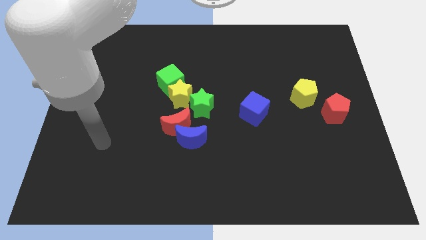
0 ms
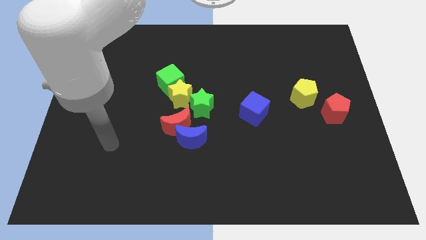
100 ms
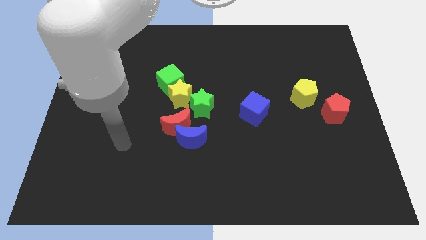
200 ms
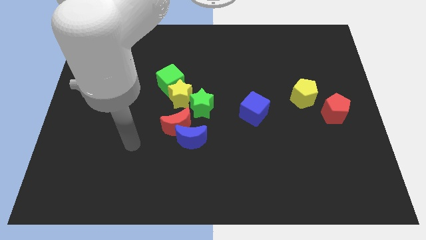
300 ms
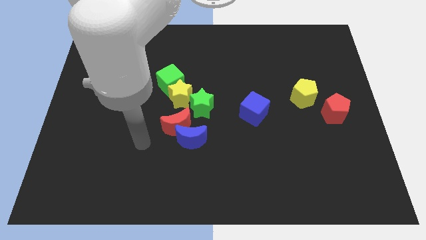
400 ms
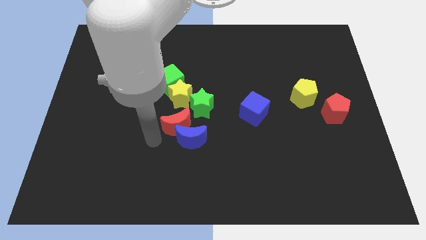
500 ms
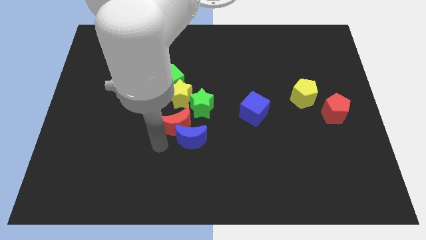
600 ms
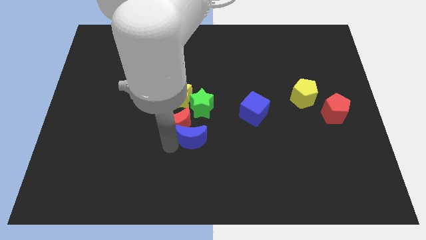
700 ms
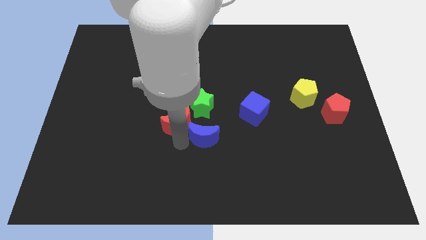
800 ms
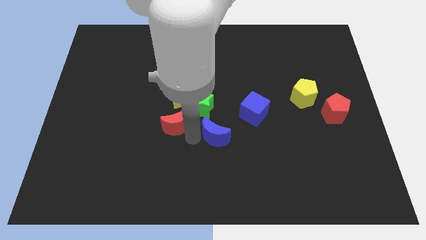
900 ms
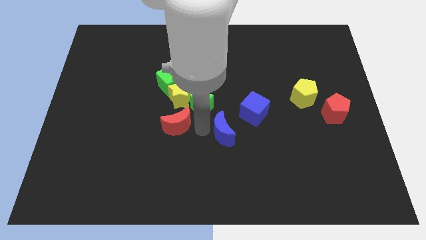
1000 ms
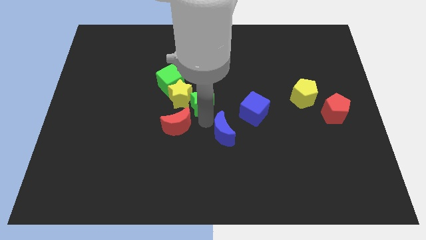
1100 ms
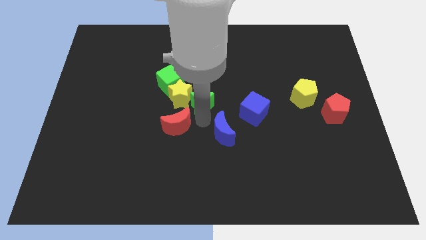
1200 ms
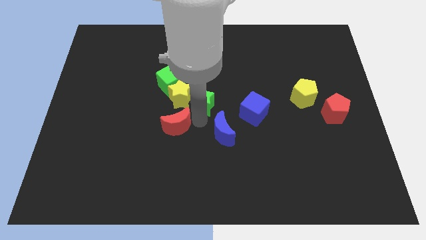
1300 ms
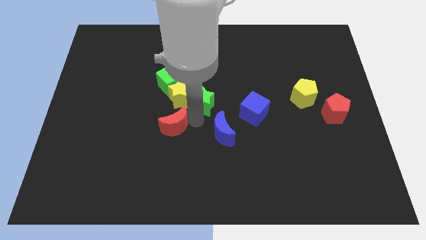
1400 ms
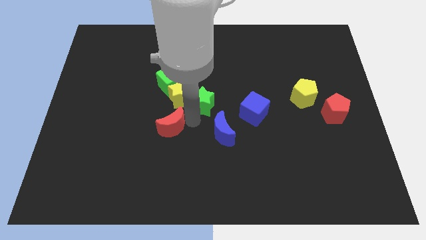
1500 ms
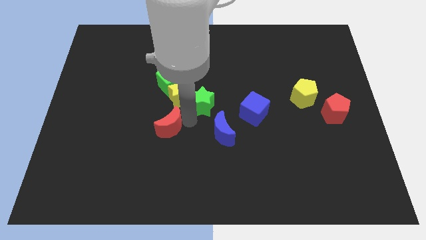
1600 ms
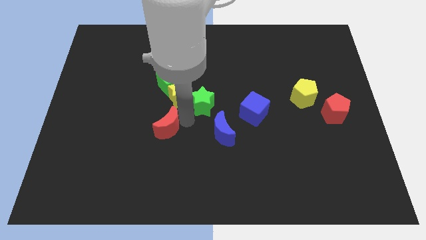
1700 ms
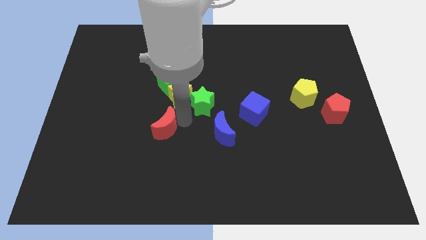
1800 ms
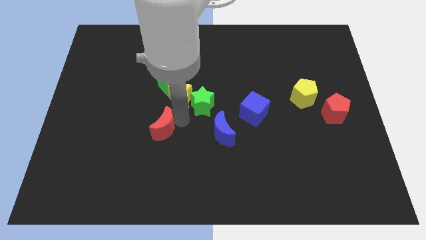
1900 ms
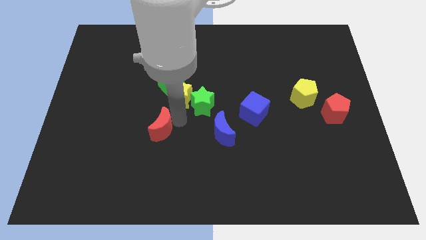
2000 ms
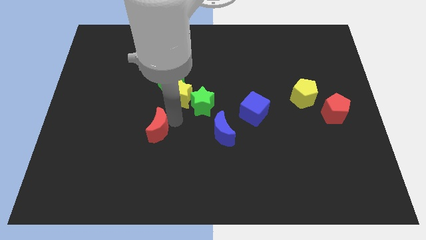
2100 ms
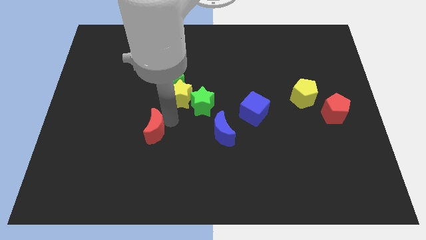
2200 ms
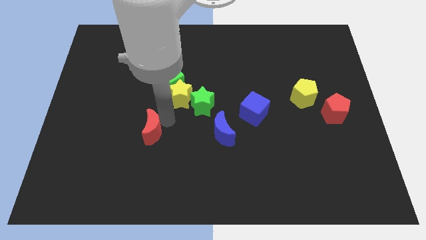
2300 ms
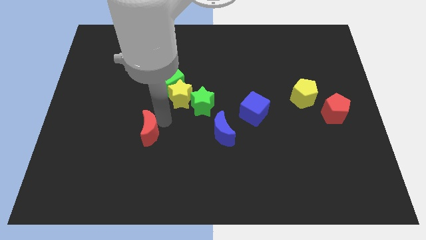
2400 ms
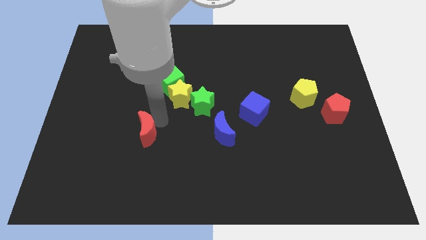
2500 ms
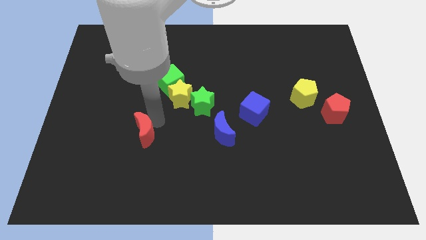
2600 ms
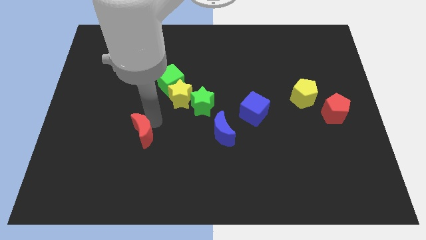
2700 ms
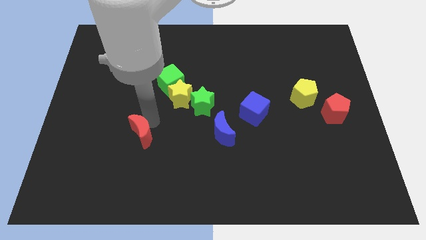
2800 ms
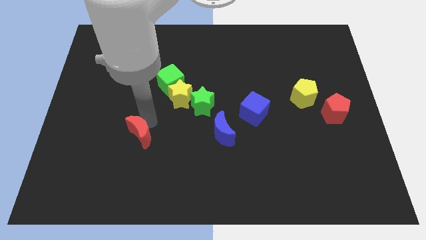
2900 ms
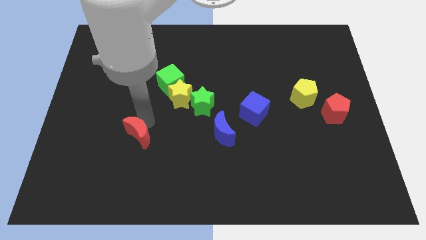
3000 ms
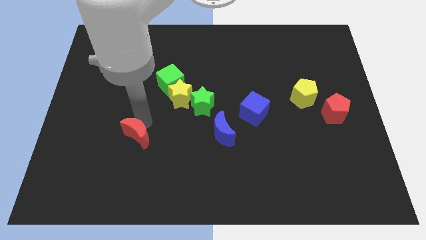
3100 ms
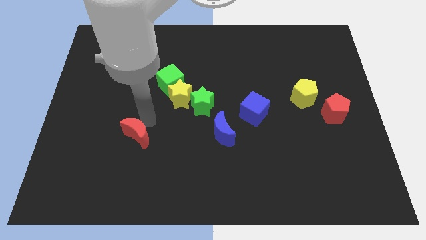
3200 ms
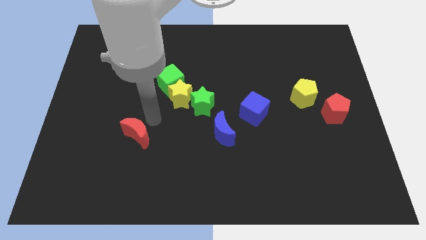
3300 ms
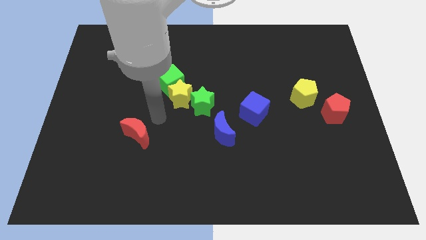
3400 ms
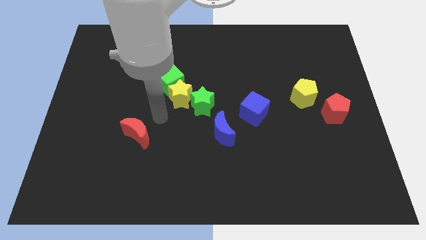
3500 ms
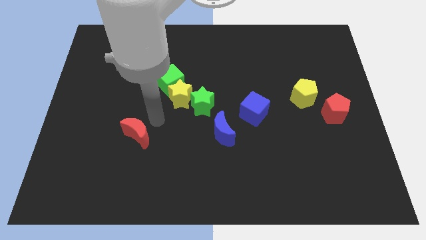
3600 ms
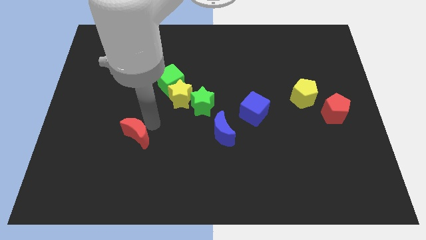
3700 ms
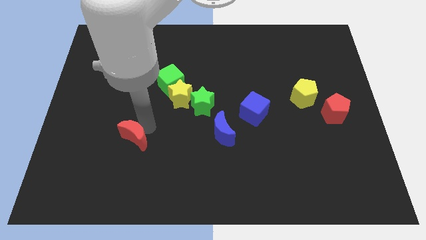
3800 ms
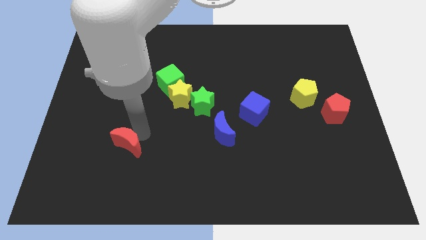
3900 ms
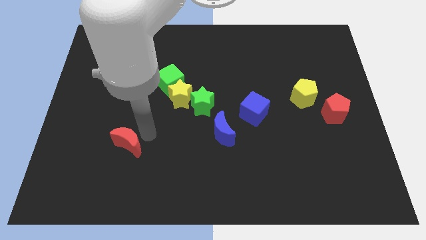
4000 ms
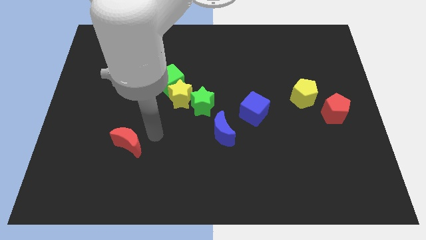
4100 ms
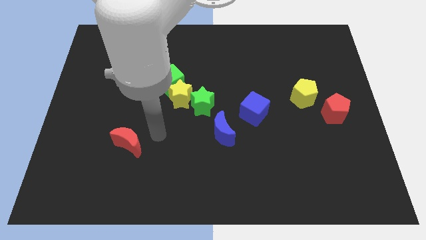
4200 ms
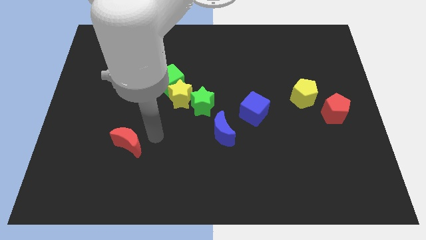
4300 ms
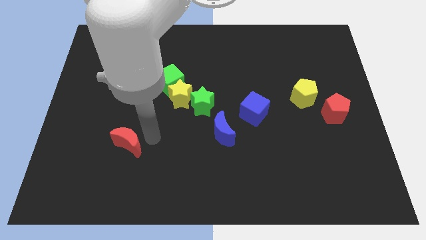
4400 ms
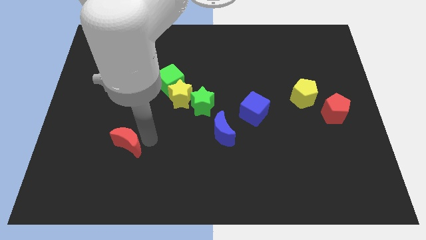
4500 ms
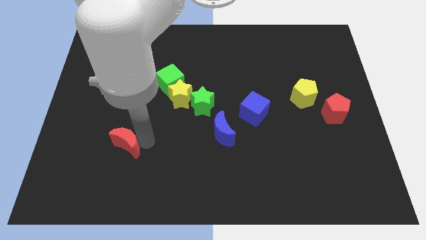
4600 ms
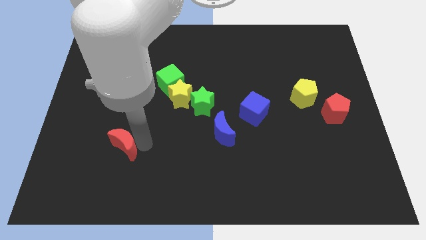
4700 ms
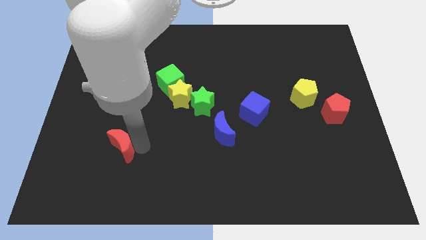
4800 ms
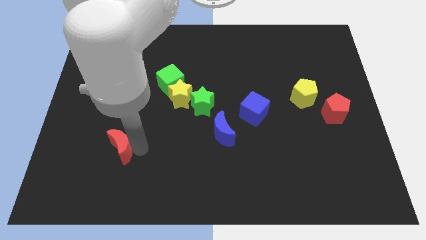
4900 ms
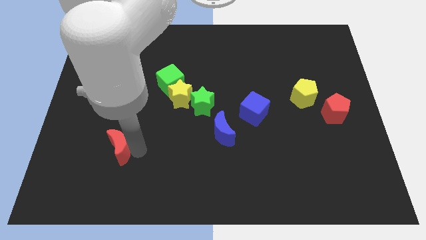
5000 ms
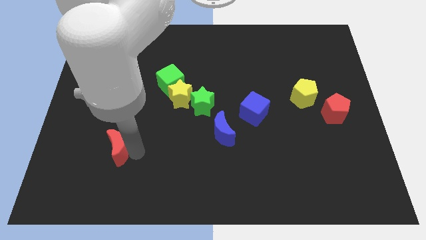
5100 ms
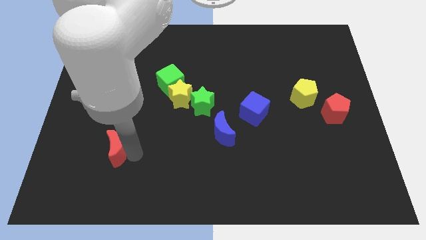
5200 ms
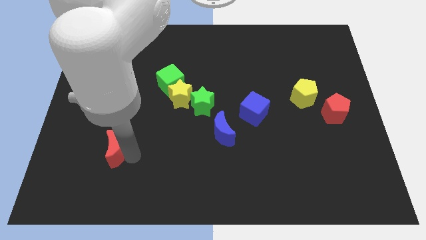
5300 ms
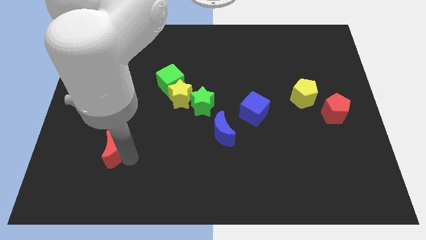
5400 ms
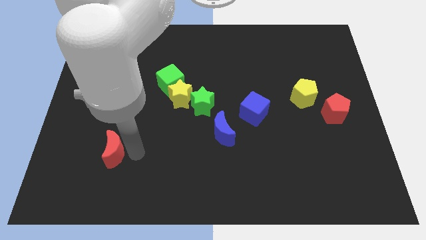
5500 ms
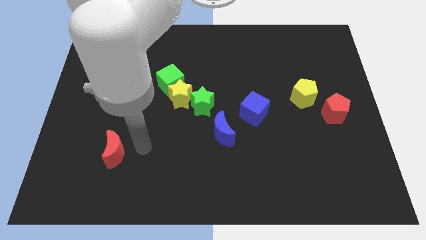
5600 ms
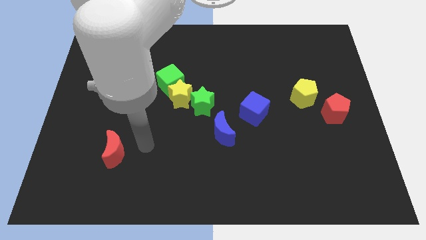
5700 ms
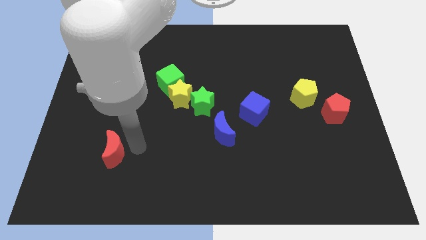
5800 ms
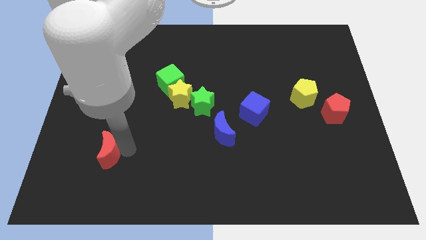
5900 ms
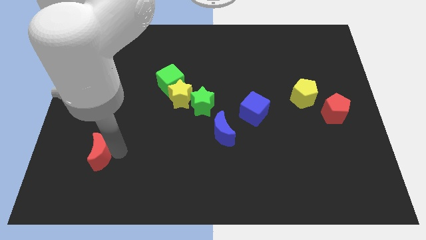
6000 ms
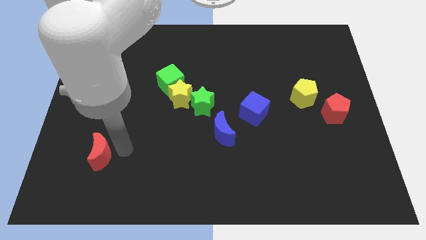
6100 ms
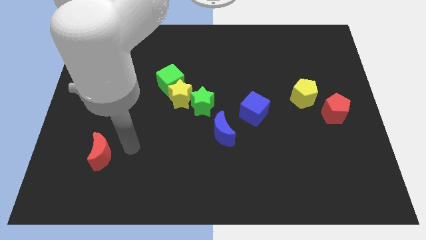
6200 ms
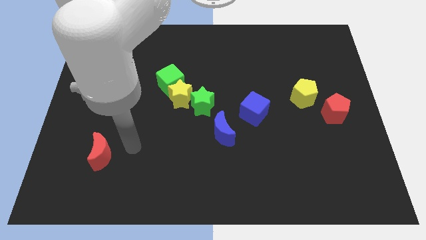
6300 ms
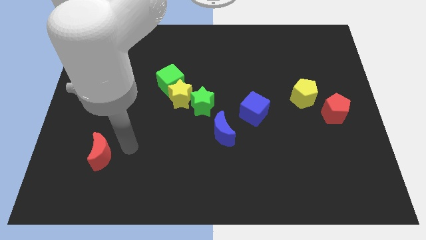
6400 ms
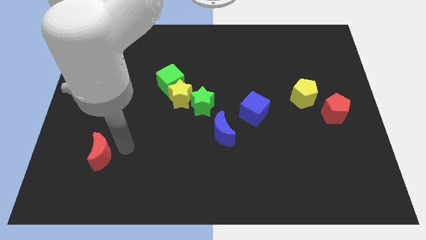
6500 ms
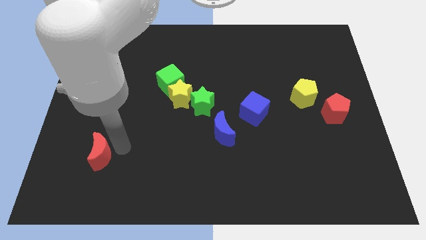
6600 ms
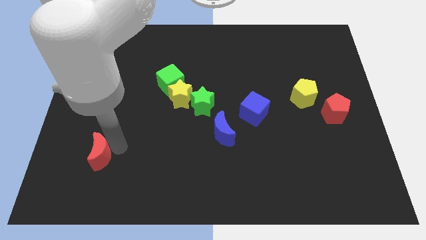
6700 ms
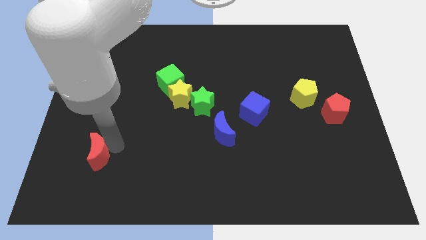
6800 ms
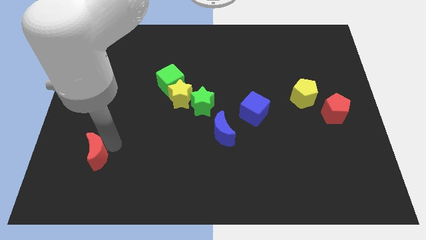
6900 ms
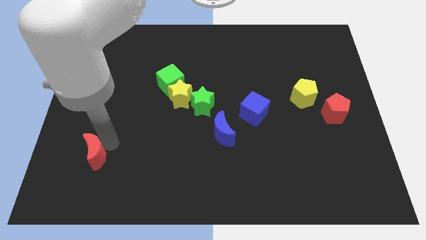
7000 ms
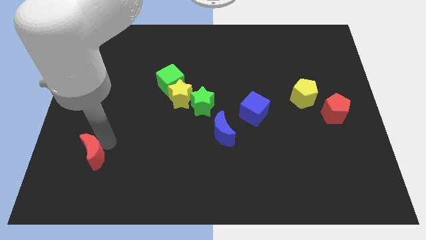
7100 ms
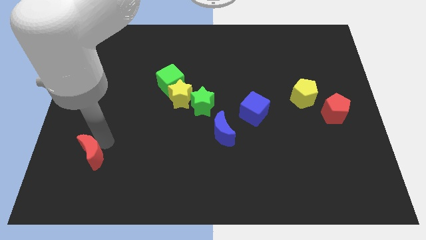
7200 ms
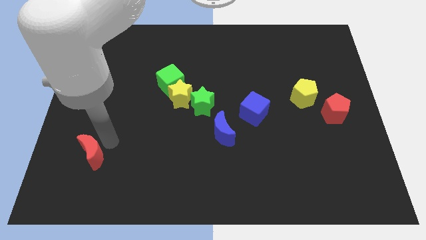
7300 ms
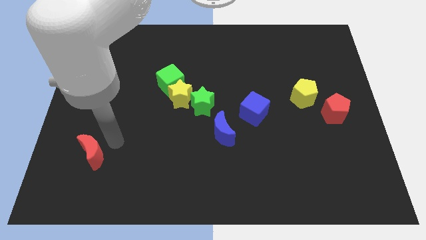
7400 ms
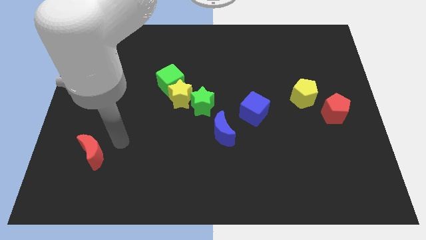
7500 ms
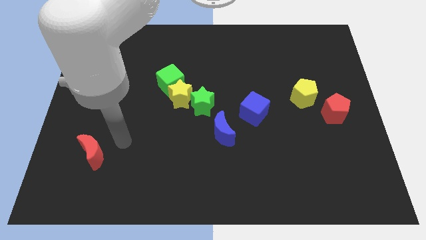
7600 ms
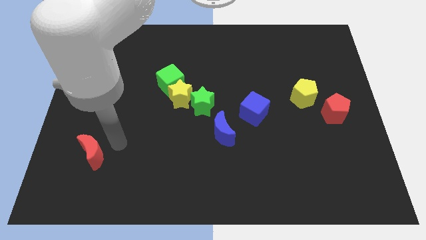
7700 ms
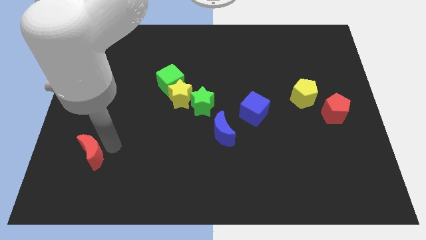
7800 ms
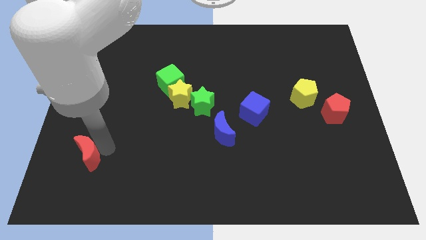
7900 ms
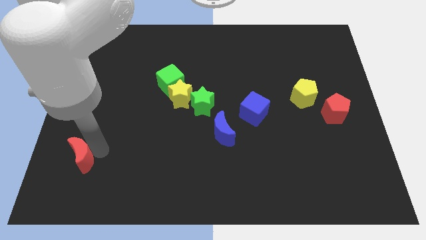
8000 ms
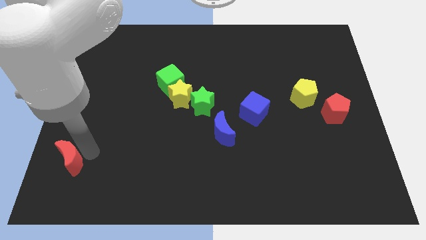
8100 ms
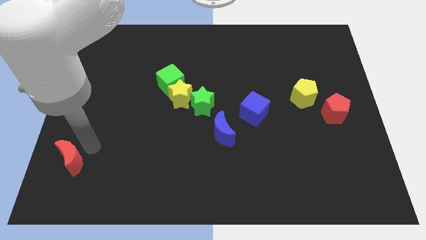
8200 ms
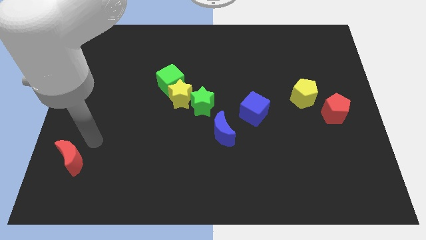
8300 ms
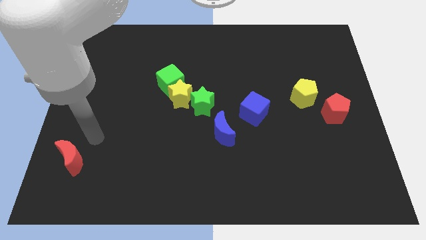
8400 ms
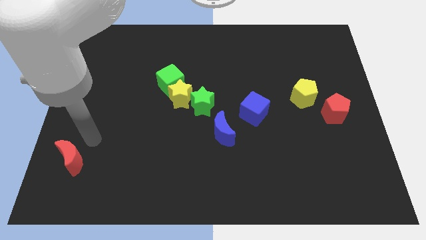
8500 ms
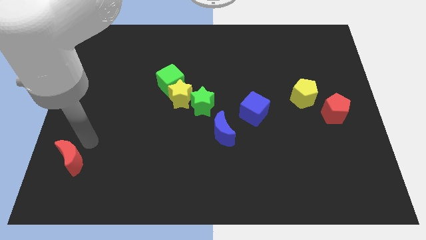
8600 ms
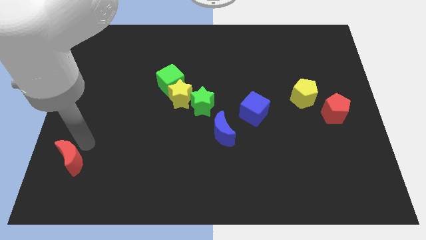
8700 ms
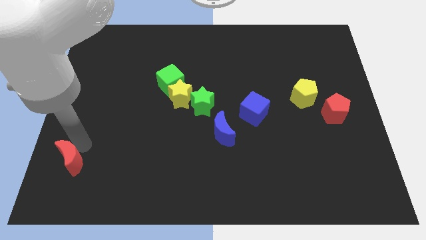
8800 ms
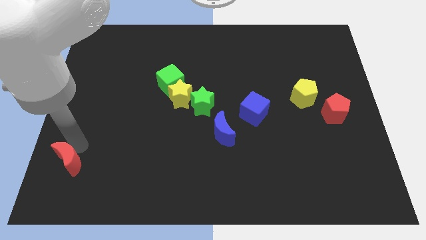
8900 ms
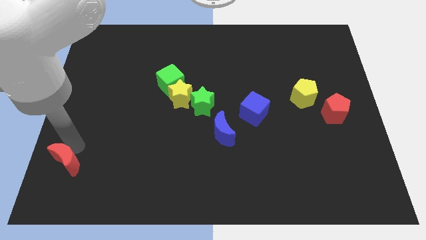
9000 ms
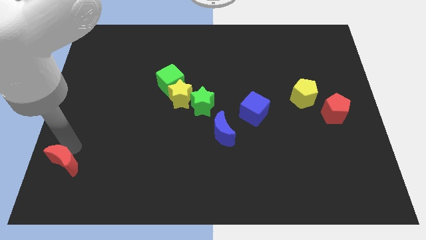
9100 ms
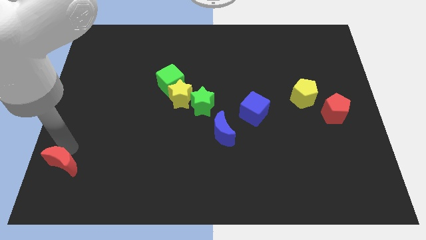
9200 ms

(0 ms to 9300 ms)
move the red moon to the bottom left corner
